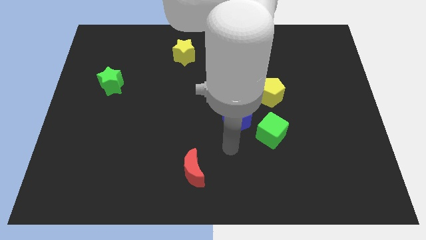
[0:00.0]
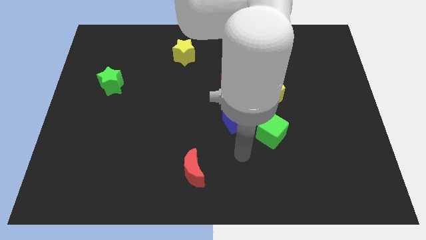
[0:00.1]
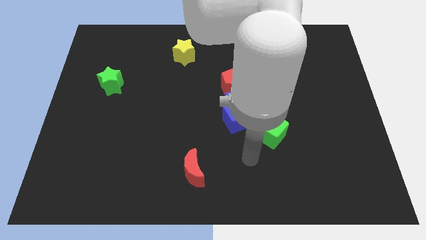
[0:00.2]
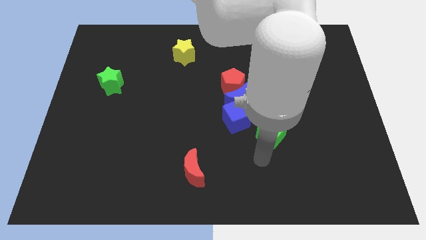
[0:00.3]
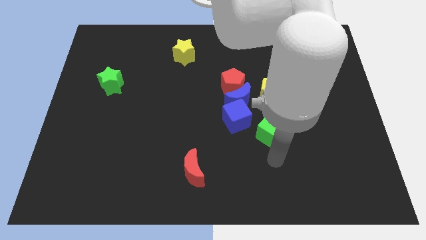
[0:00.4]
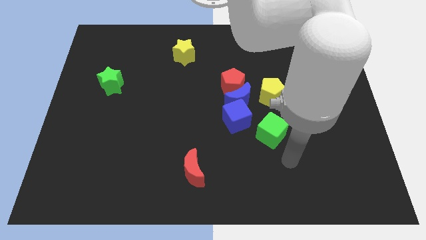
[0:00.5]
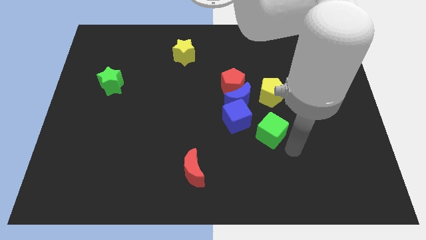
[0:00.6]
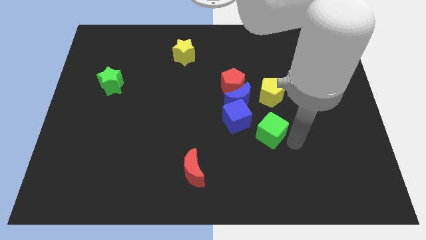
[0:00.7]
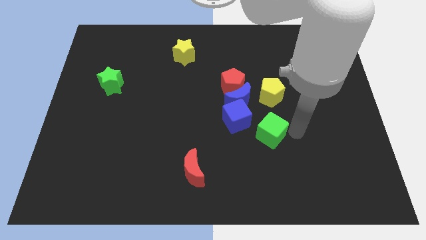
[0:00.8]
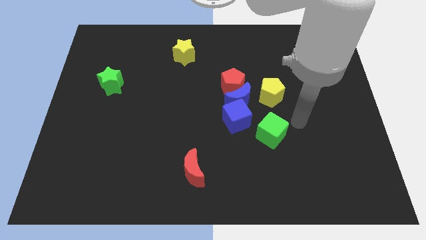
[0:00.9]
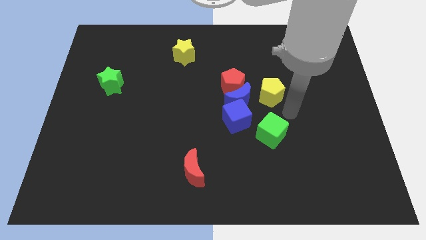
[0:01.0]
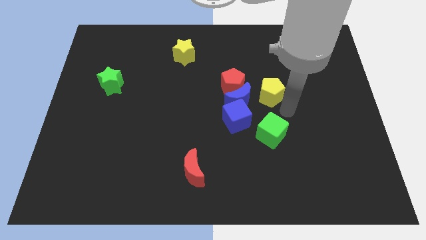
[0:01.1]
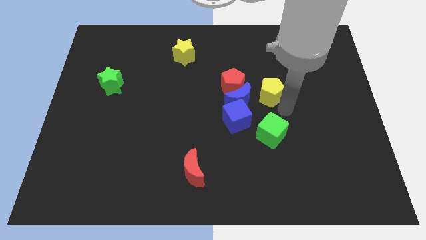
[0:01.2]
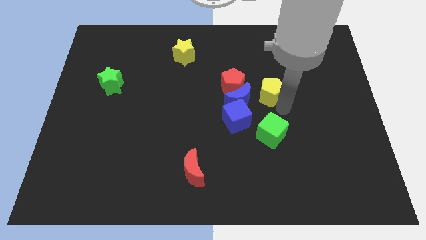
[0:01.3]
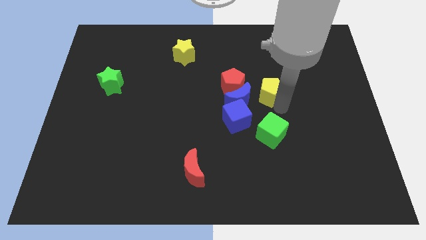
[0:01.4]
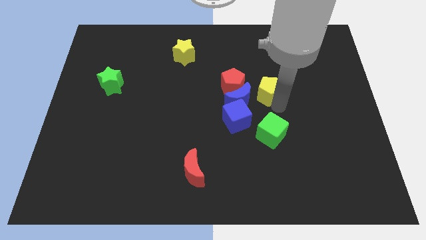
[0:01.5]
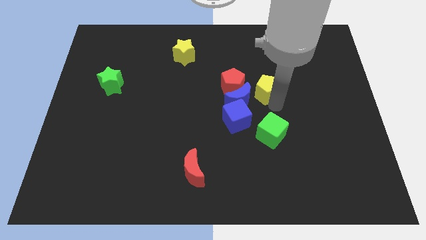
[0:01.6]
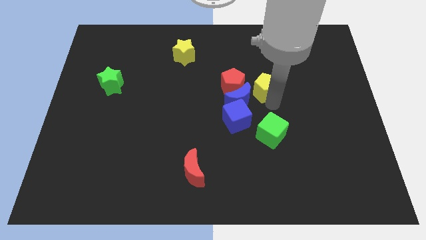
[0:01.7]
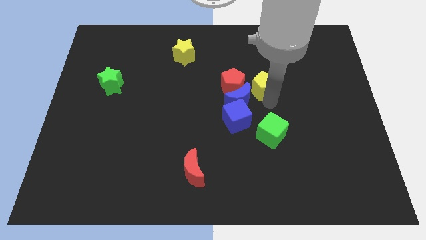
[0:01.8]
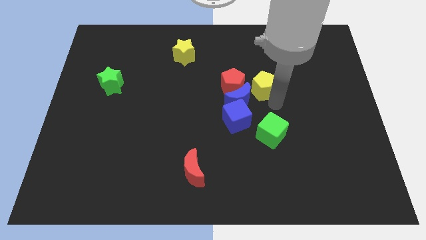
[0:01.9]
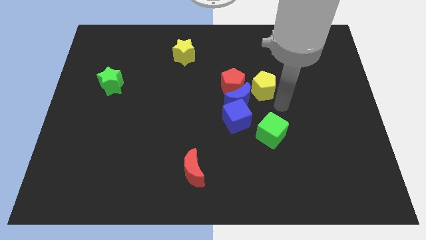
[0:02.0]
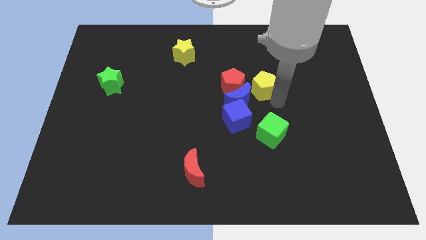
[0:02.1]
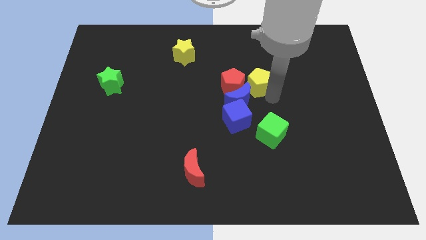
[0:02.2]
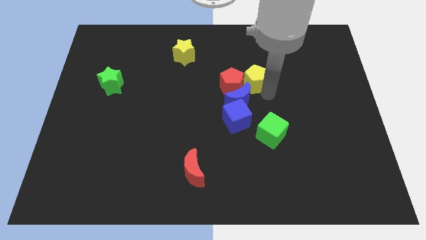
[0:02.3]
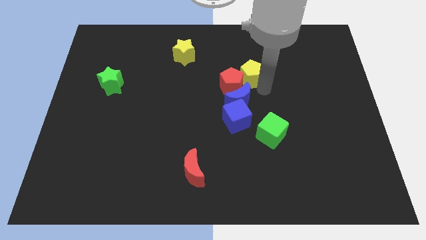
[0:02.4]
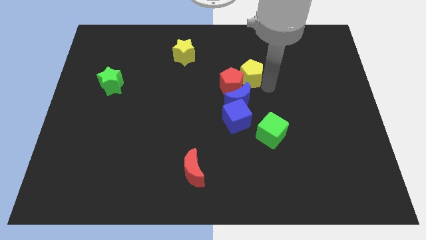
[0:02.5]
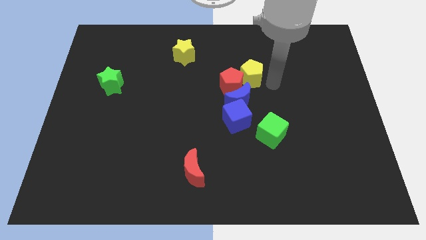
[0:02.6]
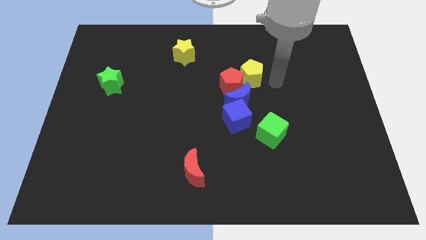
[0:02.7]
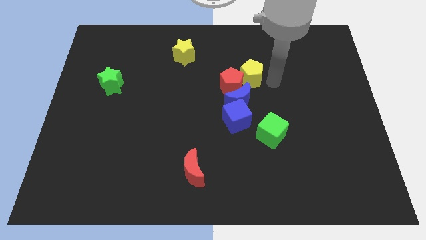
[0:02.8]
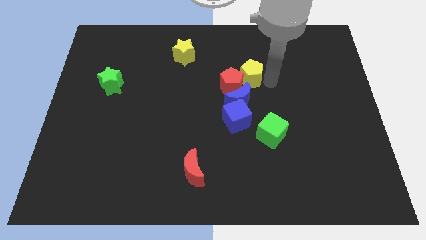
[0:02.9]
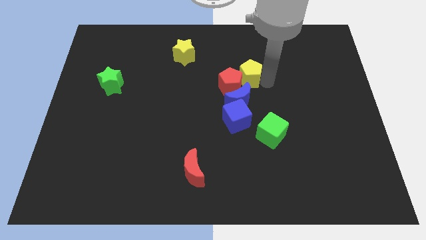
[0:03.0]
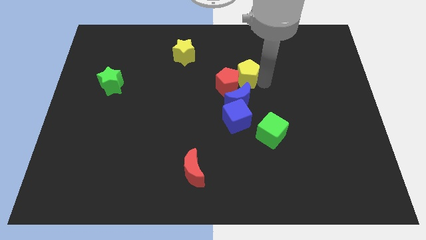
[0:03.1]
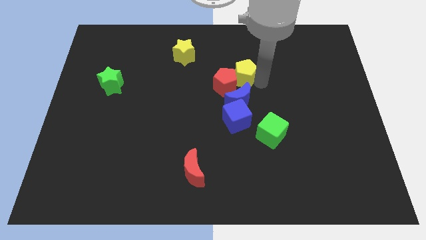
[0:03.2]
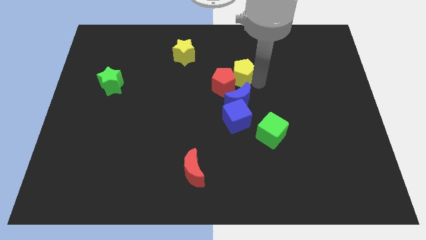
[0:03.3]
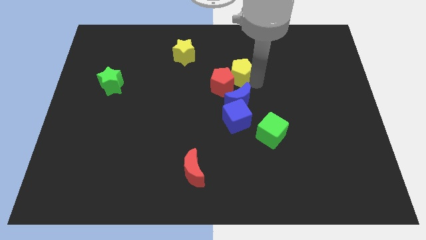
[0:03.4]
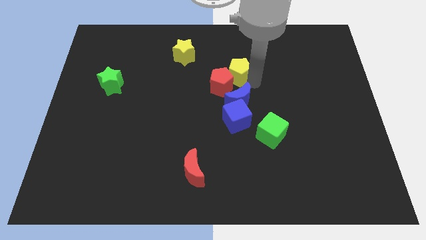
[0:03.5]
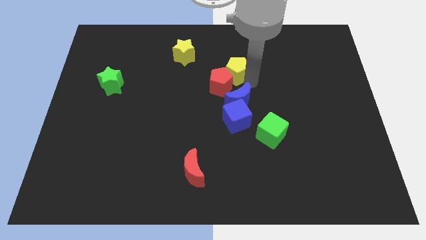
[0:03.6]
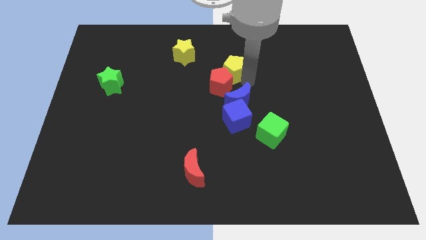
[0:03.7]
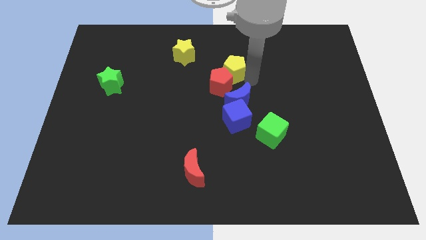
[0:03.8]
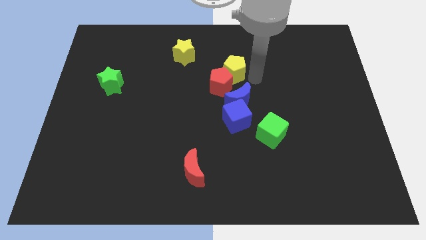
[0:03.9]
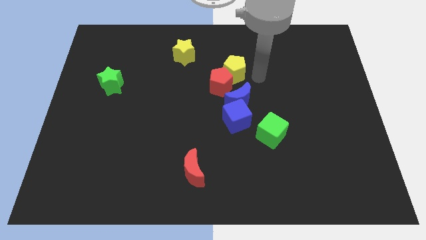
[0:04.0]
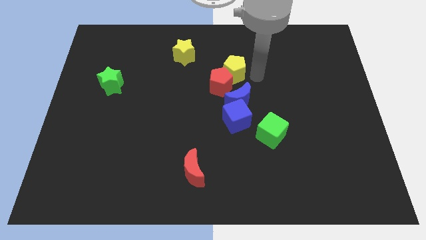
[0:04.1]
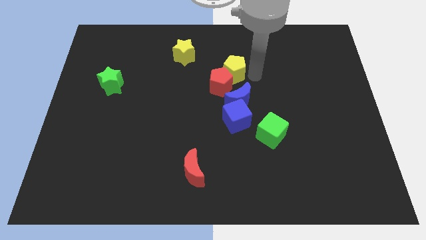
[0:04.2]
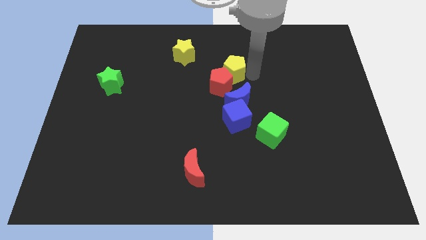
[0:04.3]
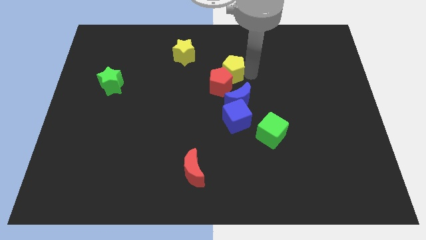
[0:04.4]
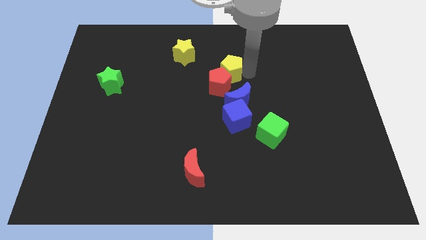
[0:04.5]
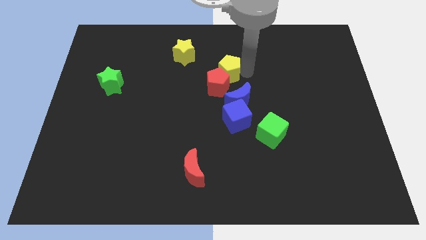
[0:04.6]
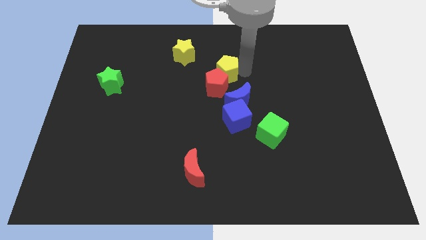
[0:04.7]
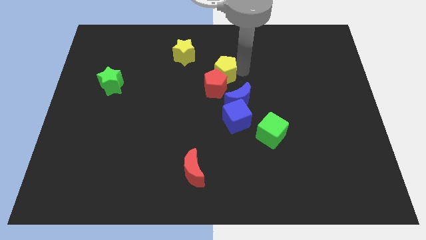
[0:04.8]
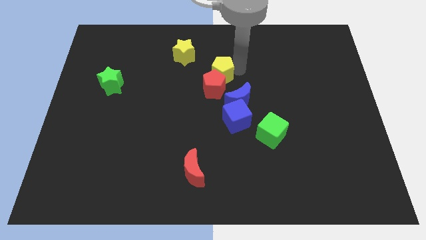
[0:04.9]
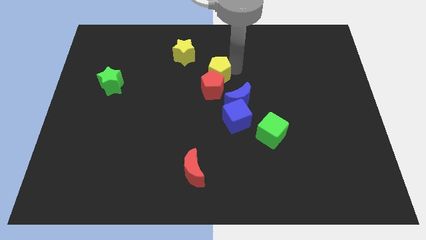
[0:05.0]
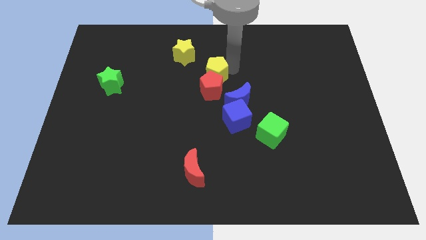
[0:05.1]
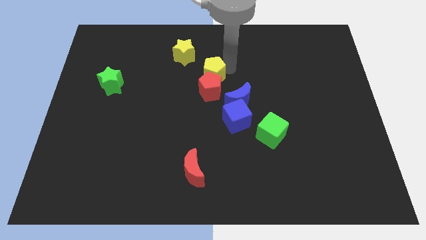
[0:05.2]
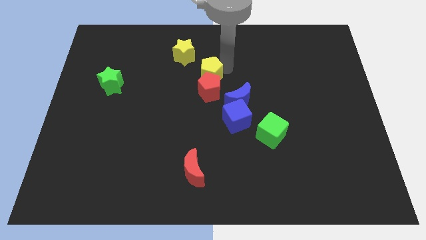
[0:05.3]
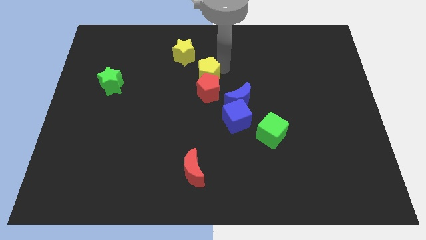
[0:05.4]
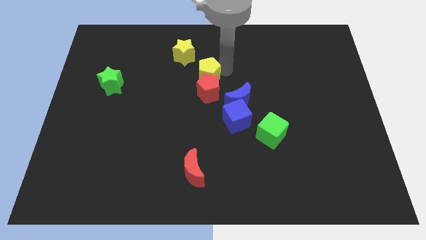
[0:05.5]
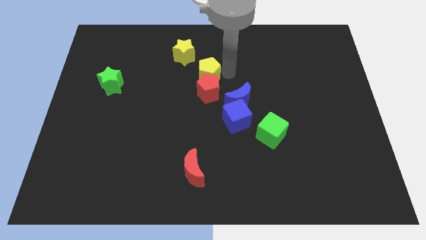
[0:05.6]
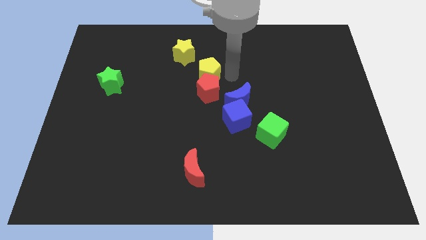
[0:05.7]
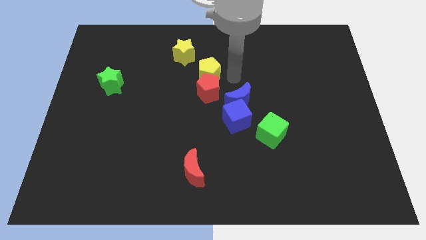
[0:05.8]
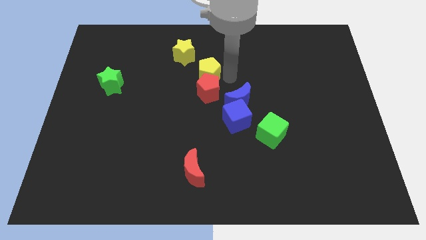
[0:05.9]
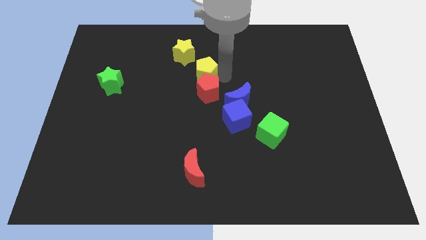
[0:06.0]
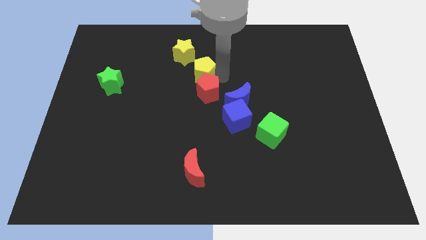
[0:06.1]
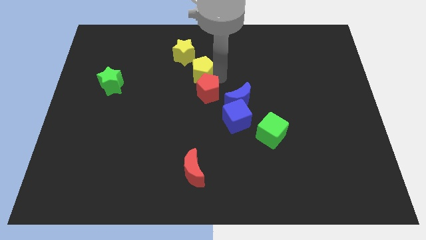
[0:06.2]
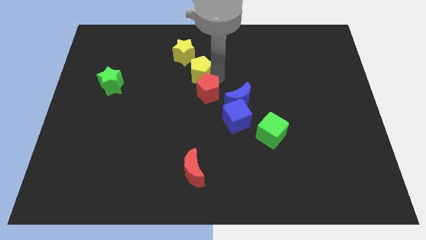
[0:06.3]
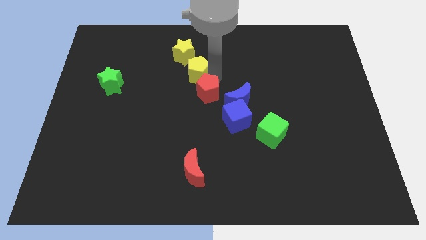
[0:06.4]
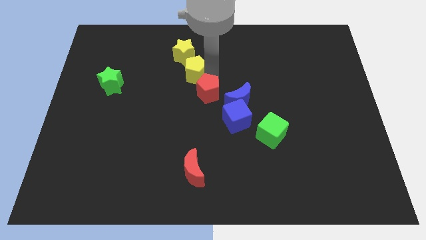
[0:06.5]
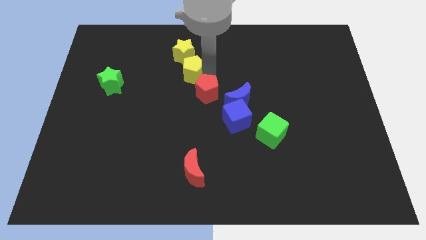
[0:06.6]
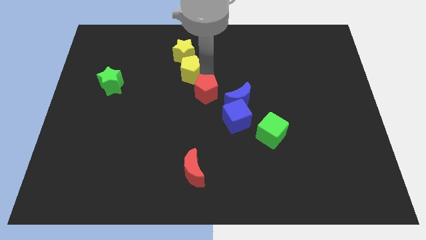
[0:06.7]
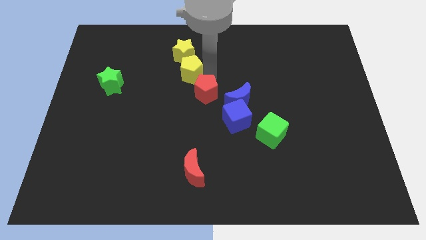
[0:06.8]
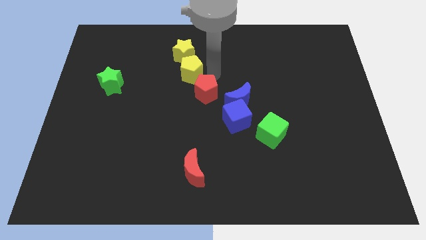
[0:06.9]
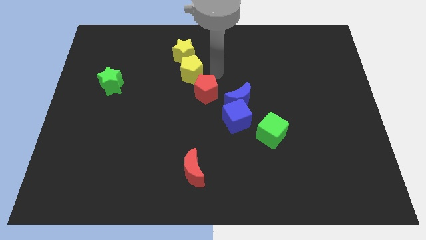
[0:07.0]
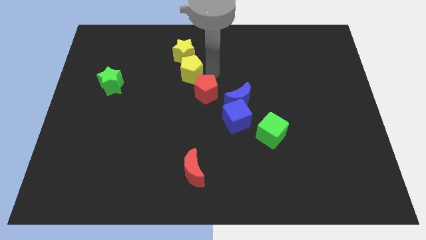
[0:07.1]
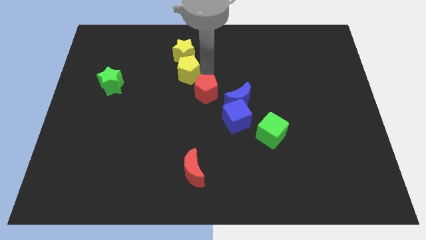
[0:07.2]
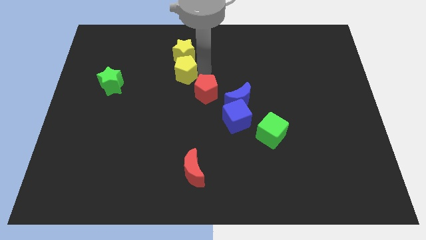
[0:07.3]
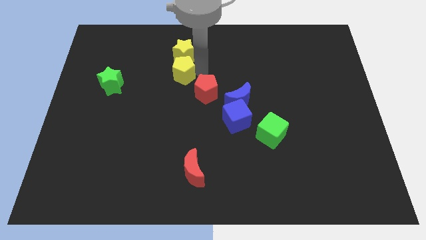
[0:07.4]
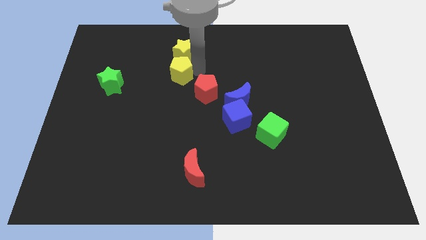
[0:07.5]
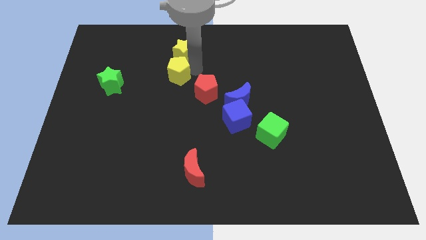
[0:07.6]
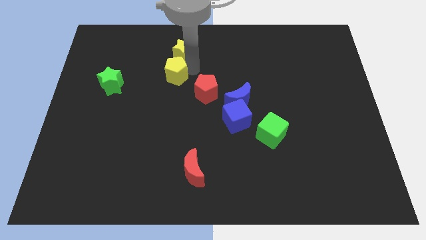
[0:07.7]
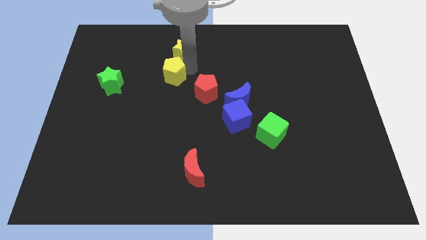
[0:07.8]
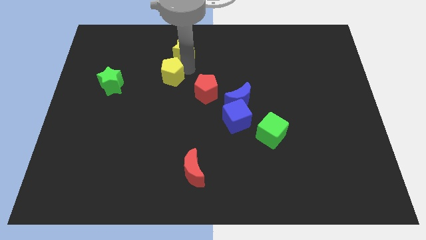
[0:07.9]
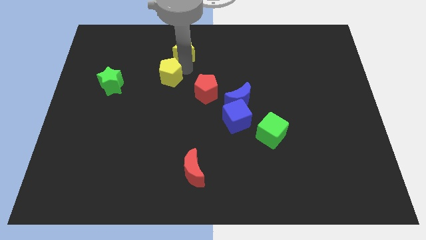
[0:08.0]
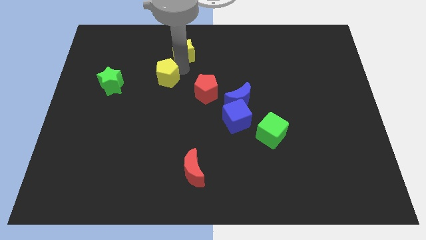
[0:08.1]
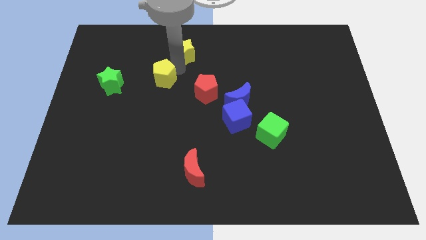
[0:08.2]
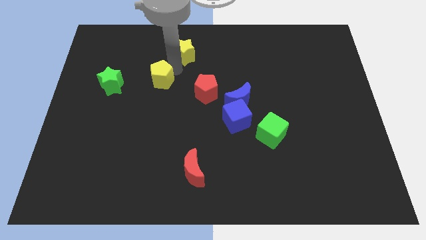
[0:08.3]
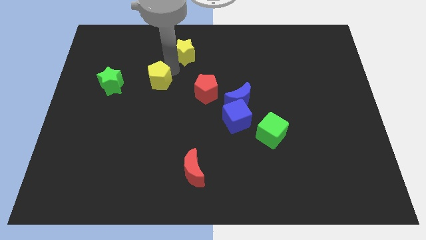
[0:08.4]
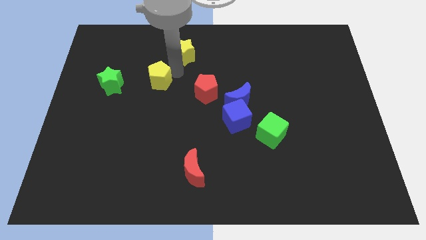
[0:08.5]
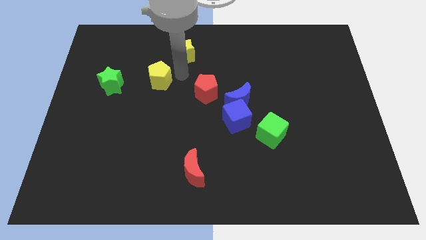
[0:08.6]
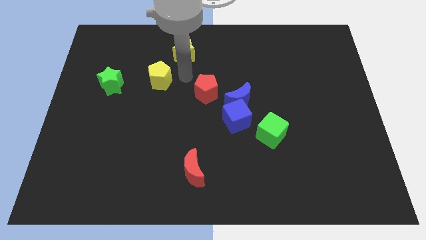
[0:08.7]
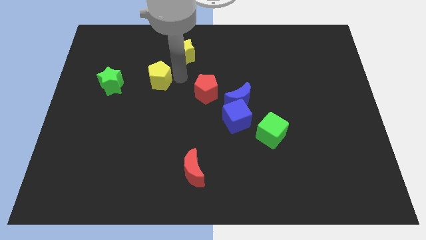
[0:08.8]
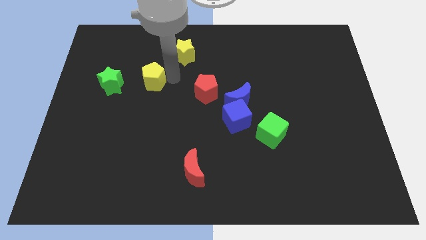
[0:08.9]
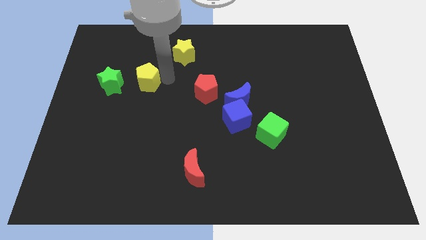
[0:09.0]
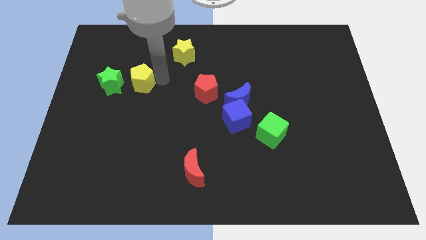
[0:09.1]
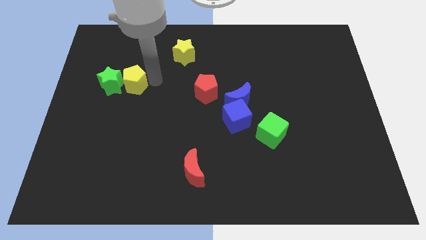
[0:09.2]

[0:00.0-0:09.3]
push the yellow pentagon close to the green star
